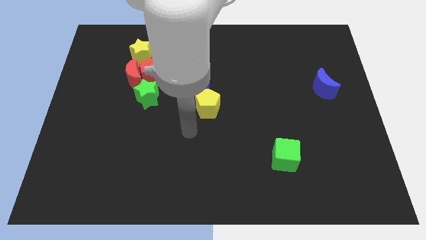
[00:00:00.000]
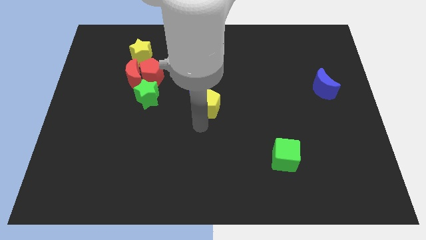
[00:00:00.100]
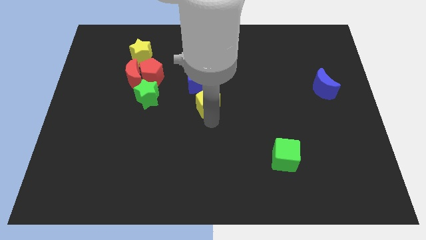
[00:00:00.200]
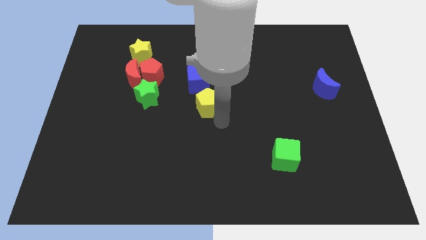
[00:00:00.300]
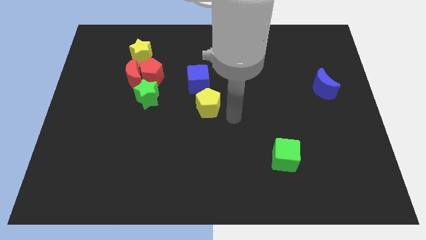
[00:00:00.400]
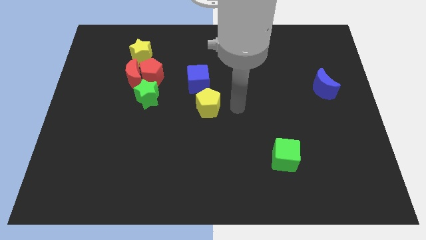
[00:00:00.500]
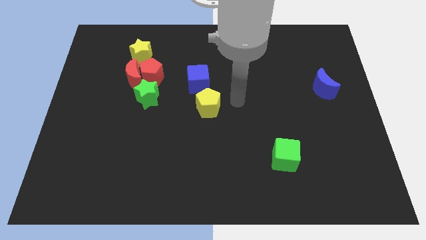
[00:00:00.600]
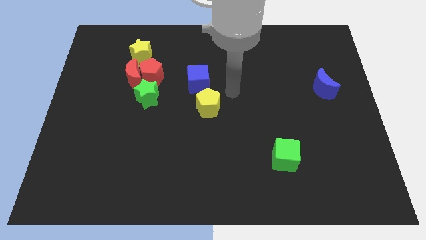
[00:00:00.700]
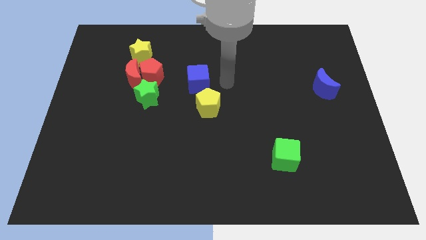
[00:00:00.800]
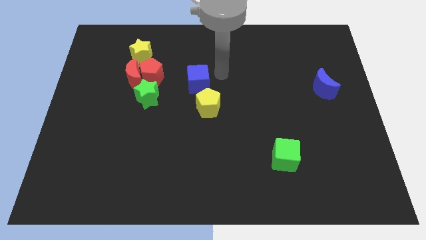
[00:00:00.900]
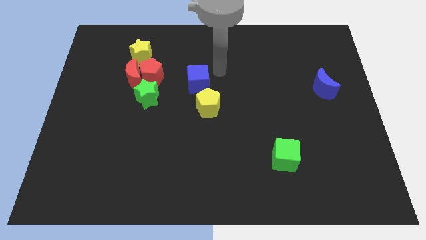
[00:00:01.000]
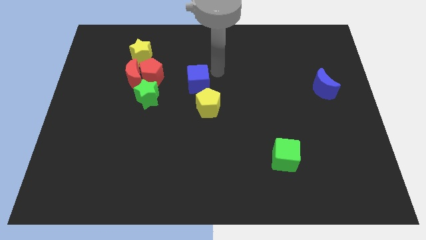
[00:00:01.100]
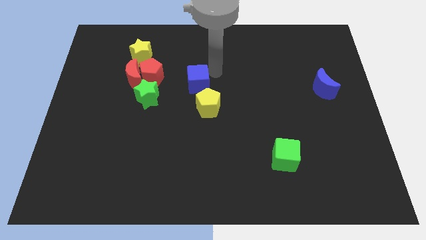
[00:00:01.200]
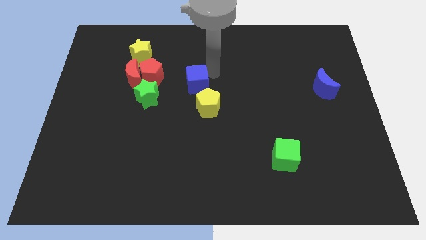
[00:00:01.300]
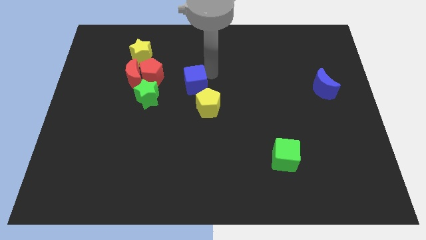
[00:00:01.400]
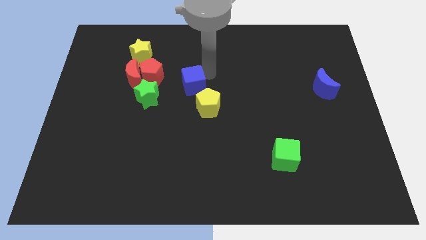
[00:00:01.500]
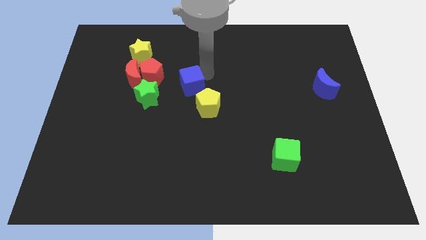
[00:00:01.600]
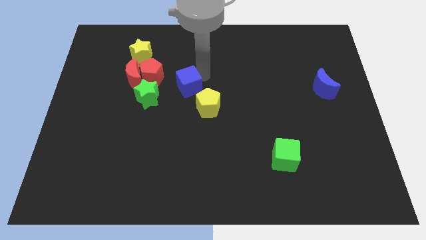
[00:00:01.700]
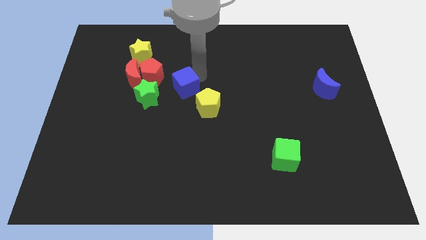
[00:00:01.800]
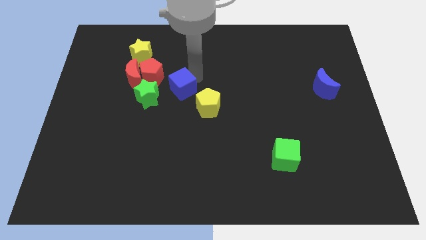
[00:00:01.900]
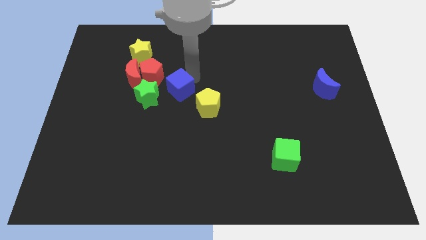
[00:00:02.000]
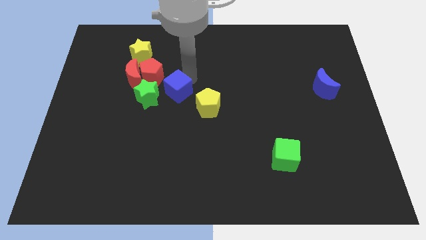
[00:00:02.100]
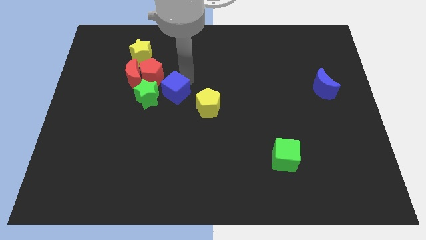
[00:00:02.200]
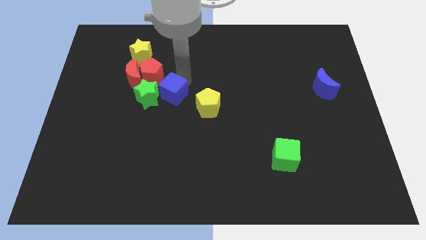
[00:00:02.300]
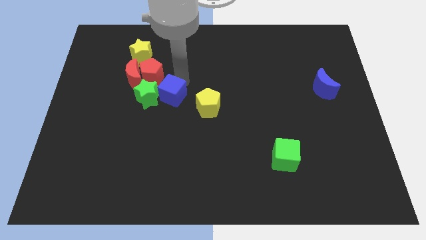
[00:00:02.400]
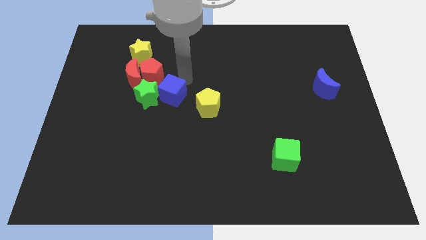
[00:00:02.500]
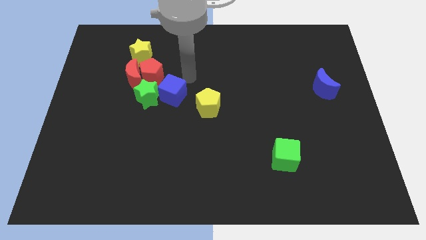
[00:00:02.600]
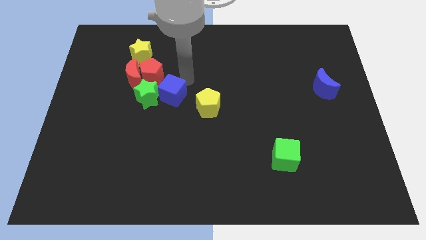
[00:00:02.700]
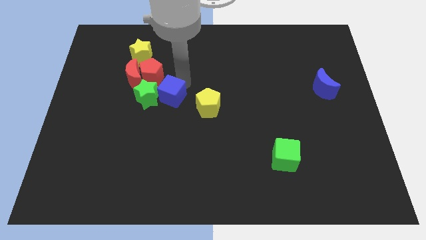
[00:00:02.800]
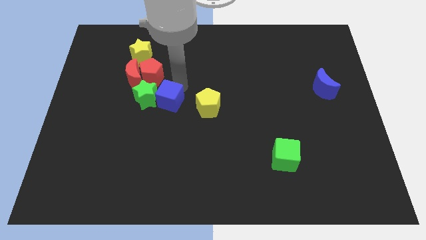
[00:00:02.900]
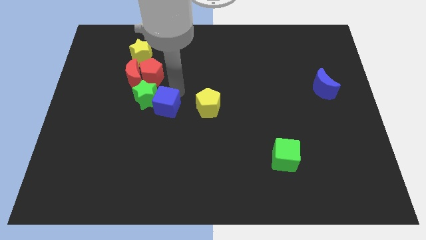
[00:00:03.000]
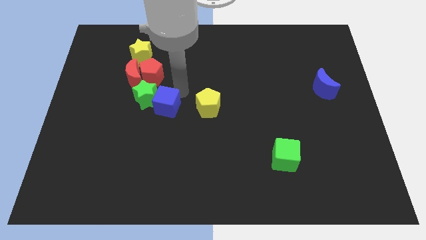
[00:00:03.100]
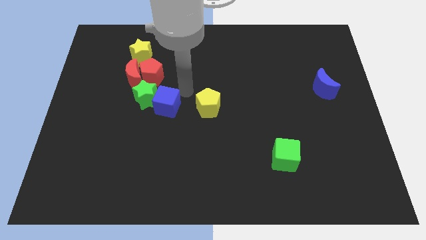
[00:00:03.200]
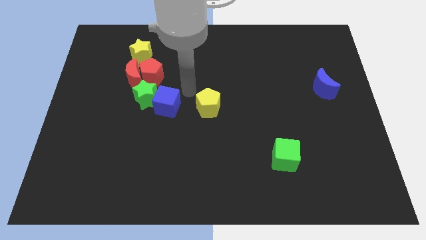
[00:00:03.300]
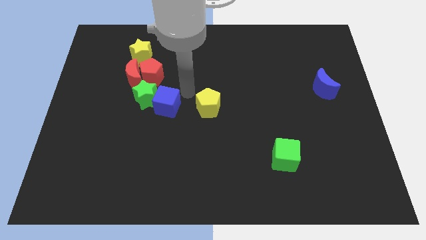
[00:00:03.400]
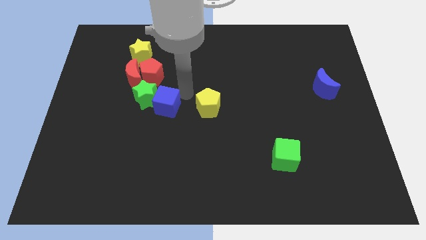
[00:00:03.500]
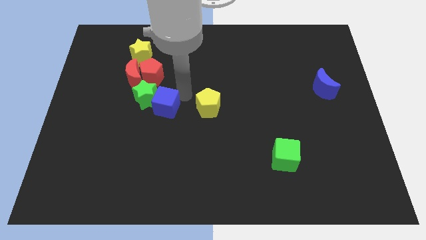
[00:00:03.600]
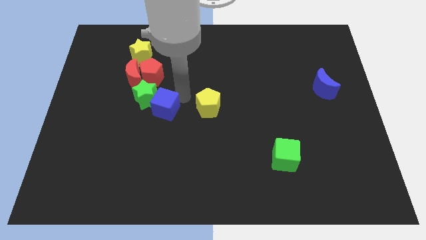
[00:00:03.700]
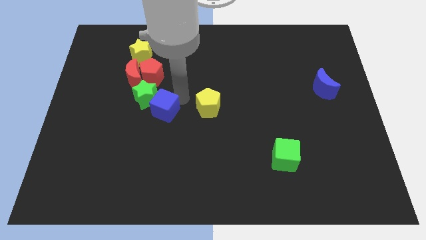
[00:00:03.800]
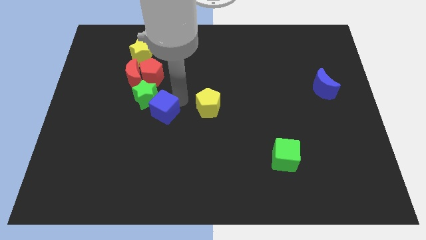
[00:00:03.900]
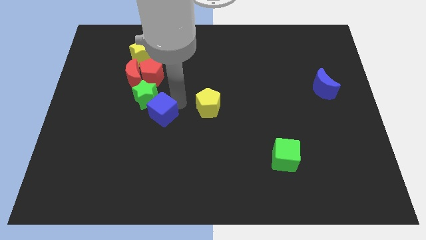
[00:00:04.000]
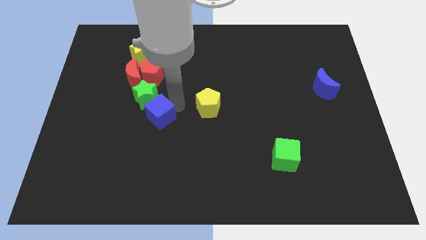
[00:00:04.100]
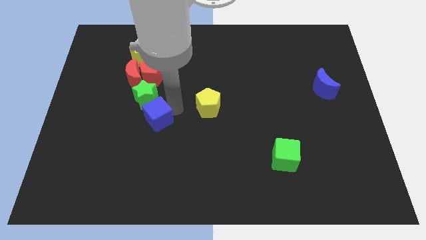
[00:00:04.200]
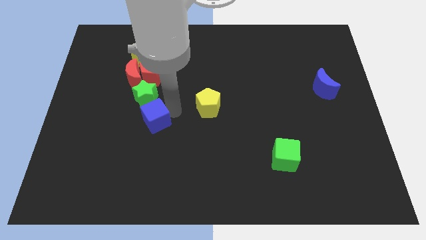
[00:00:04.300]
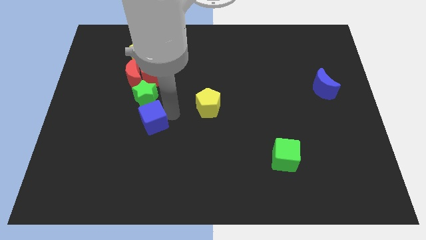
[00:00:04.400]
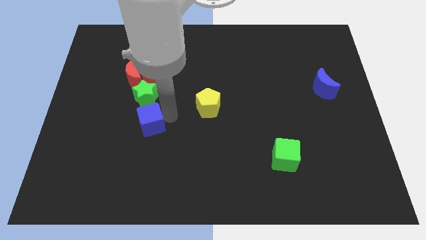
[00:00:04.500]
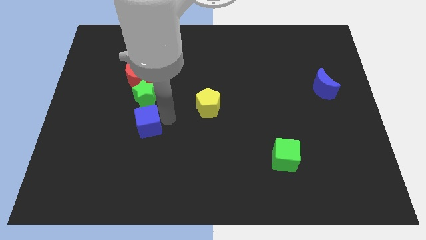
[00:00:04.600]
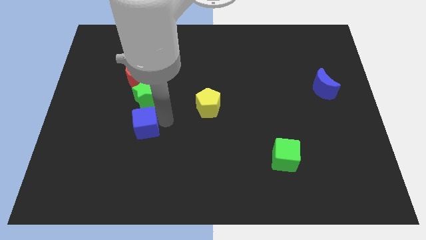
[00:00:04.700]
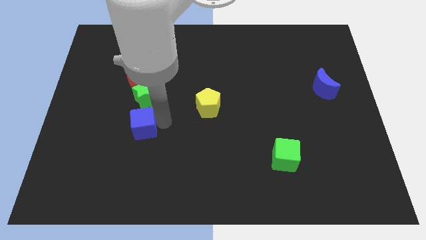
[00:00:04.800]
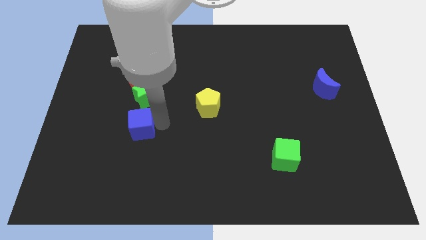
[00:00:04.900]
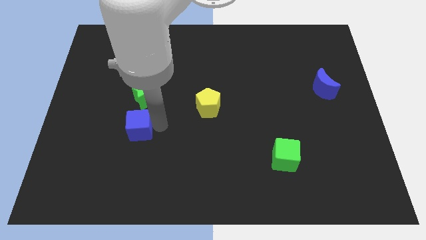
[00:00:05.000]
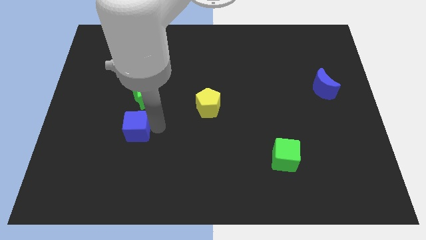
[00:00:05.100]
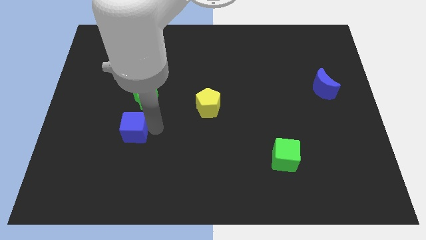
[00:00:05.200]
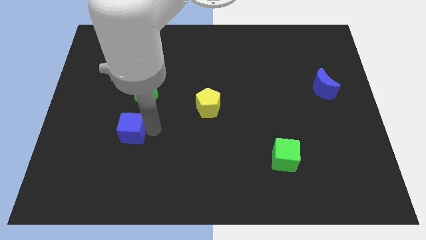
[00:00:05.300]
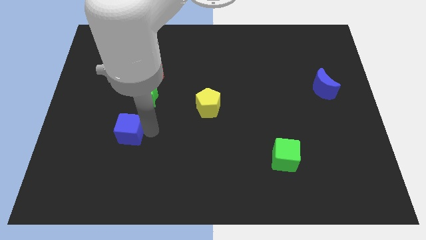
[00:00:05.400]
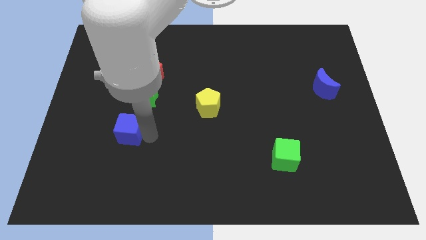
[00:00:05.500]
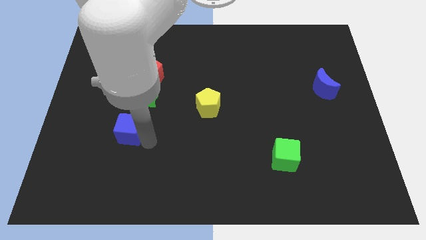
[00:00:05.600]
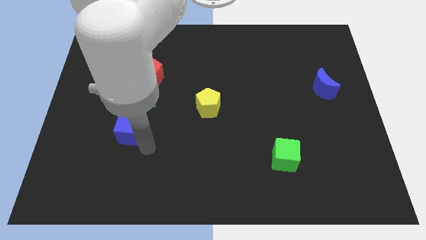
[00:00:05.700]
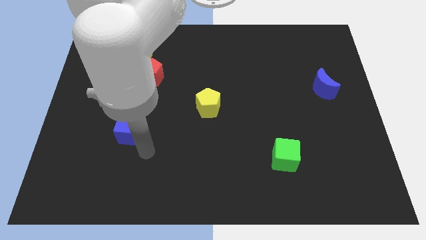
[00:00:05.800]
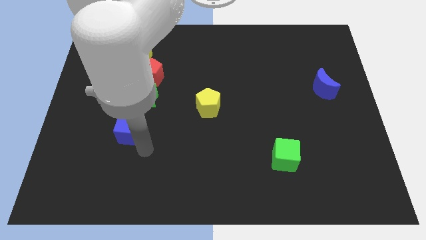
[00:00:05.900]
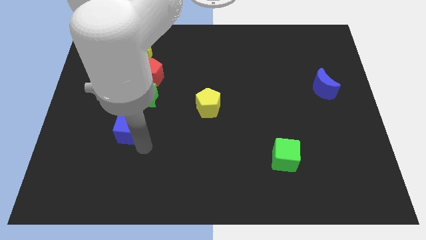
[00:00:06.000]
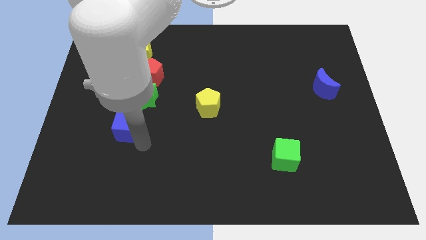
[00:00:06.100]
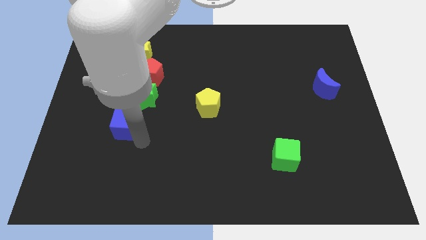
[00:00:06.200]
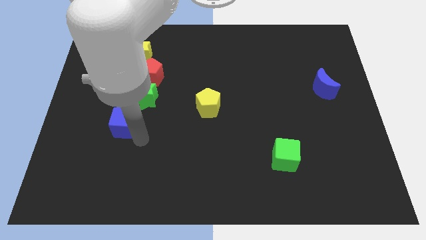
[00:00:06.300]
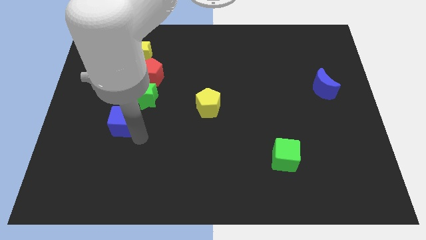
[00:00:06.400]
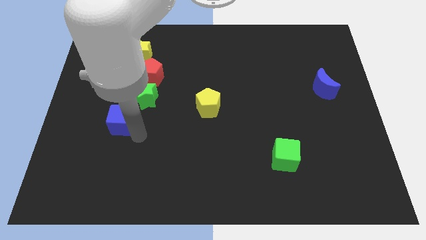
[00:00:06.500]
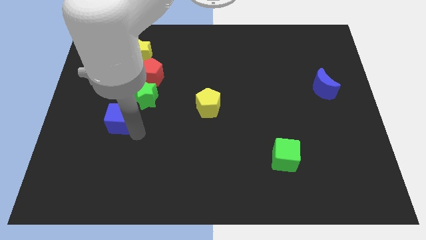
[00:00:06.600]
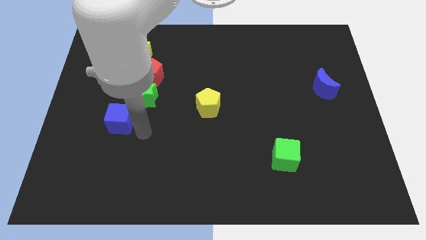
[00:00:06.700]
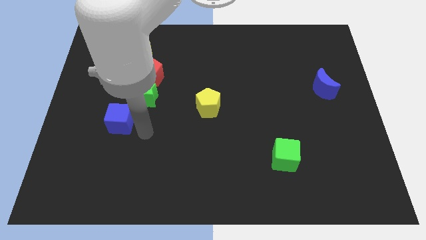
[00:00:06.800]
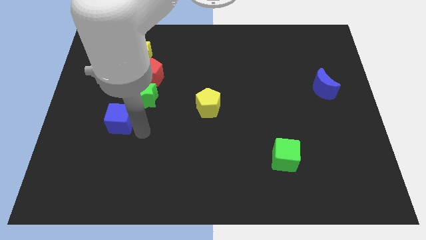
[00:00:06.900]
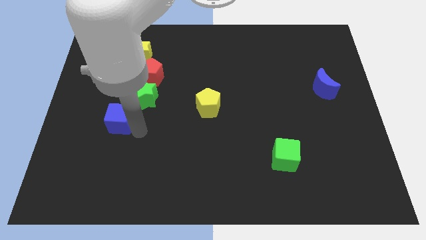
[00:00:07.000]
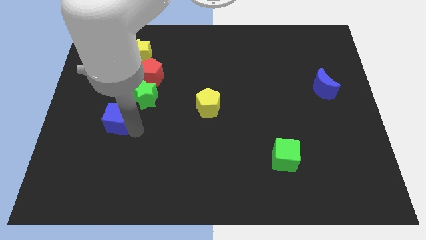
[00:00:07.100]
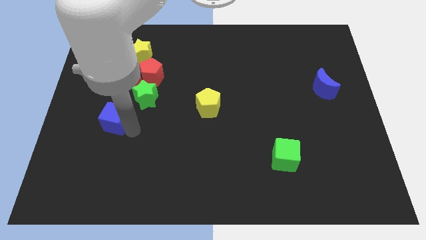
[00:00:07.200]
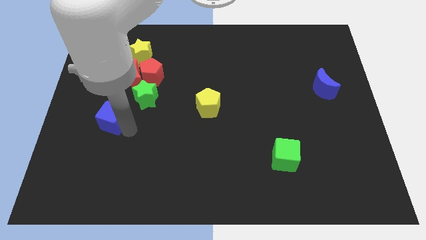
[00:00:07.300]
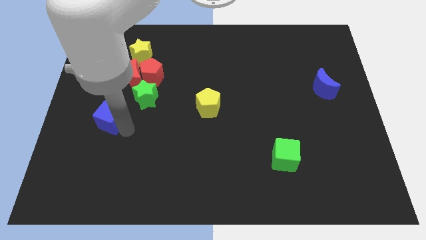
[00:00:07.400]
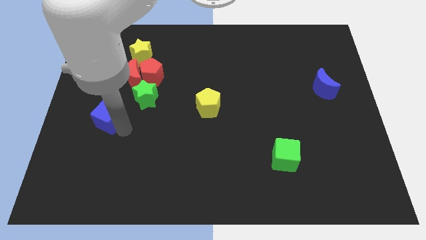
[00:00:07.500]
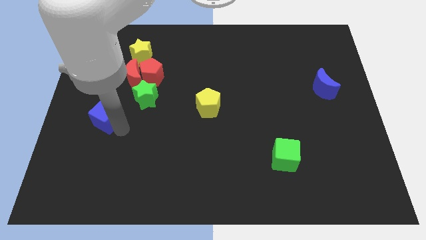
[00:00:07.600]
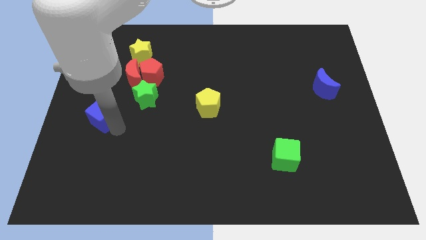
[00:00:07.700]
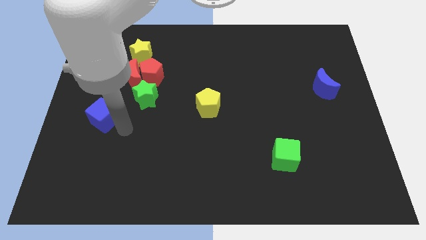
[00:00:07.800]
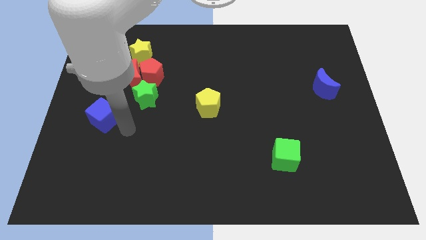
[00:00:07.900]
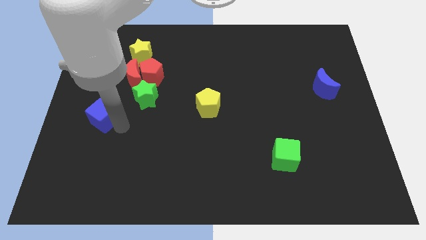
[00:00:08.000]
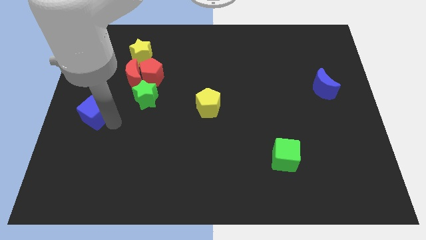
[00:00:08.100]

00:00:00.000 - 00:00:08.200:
put the blue cube to the left side of the board
